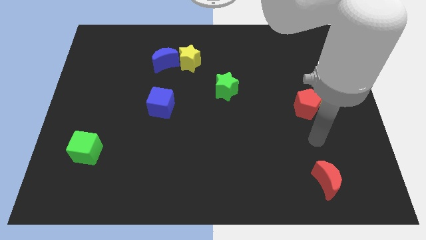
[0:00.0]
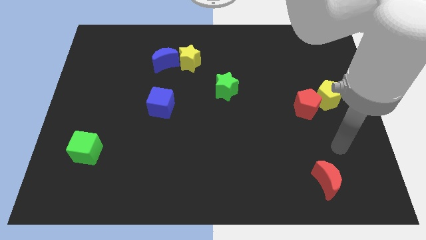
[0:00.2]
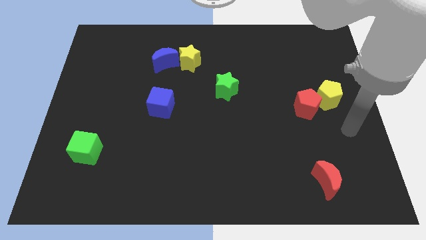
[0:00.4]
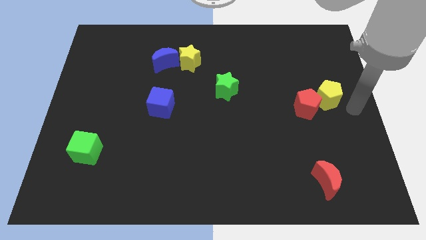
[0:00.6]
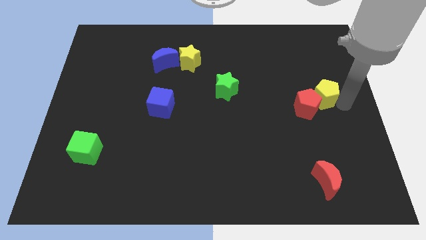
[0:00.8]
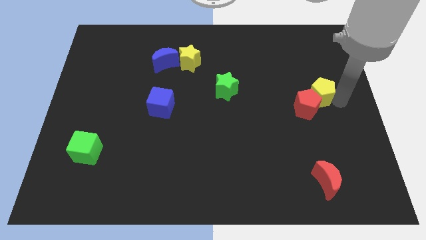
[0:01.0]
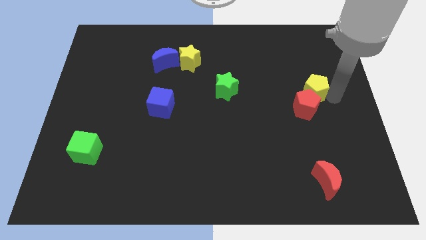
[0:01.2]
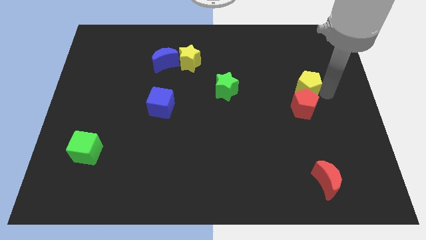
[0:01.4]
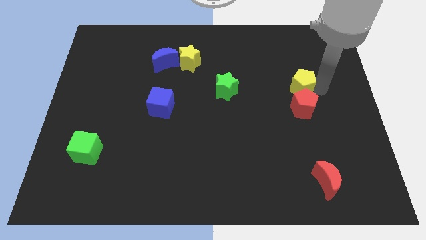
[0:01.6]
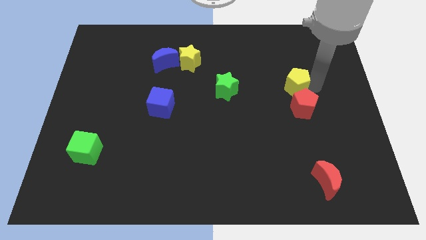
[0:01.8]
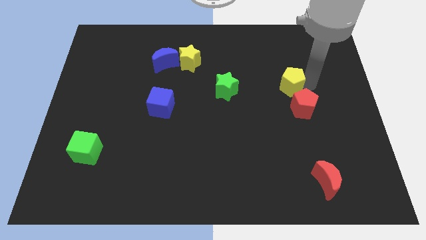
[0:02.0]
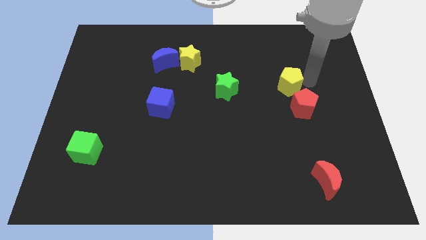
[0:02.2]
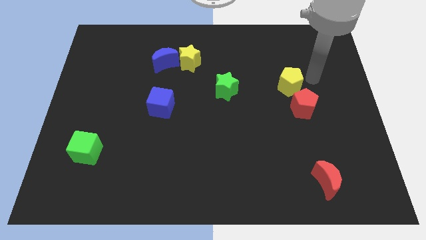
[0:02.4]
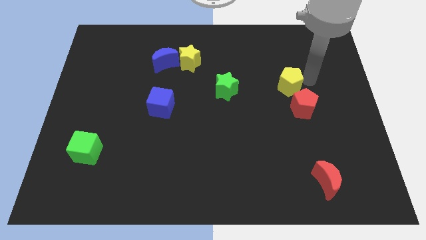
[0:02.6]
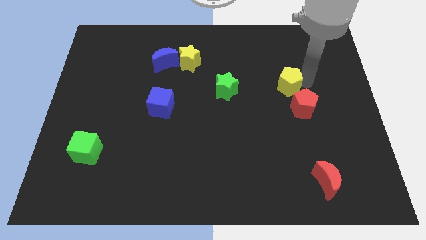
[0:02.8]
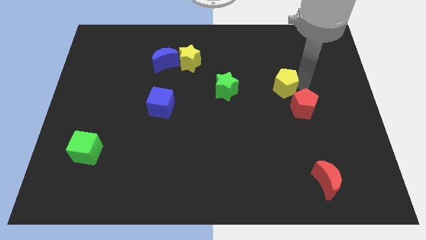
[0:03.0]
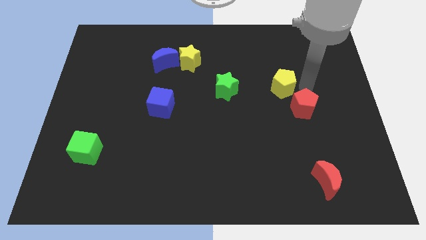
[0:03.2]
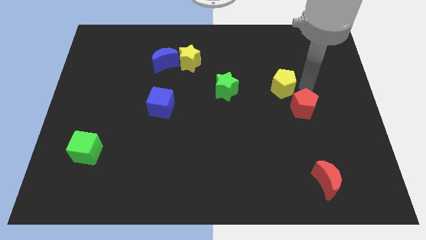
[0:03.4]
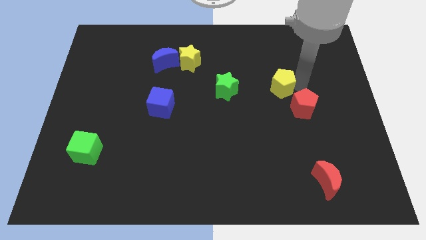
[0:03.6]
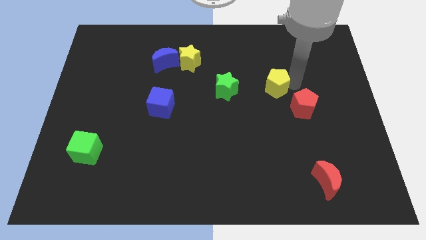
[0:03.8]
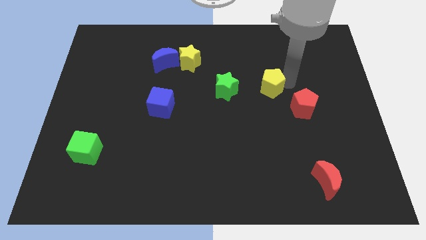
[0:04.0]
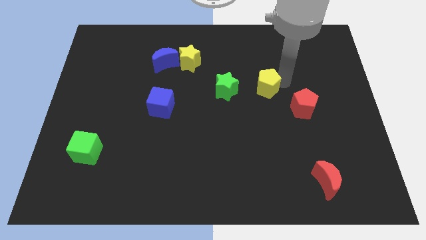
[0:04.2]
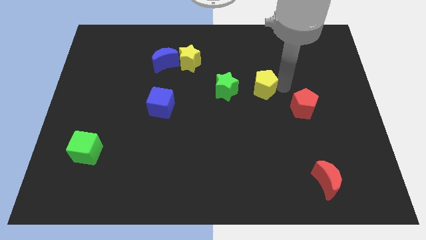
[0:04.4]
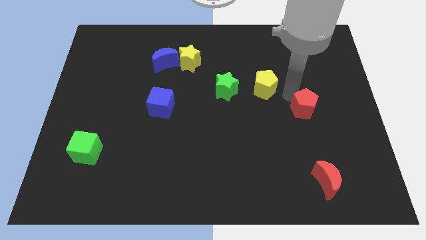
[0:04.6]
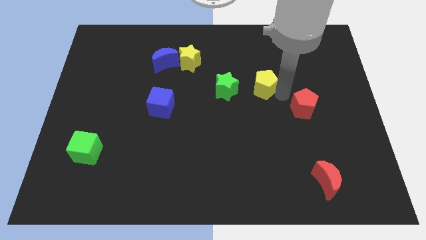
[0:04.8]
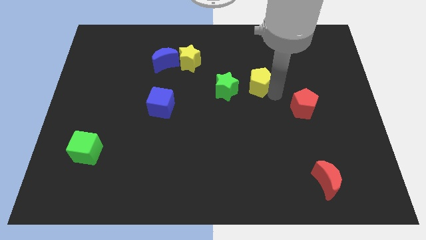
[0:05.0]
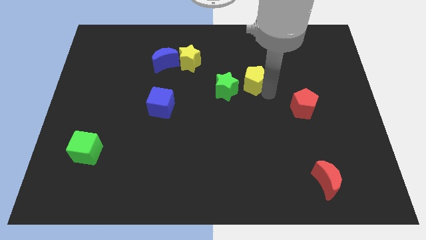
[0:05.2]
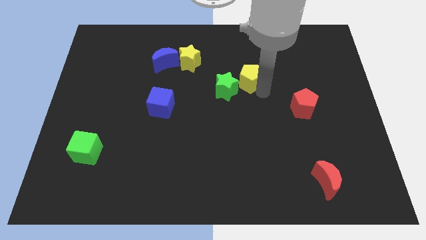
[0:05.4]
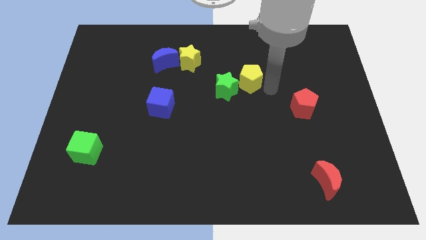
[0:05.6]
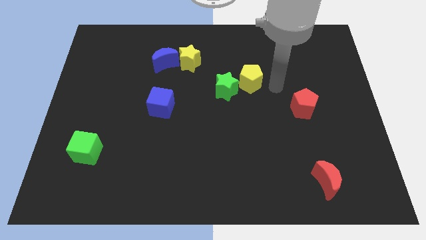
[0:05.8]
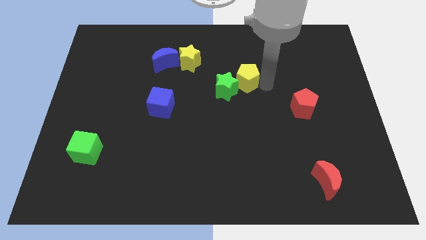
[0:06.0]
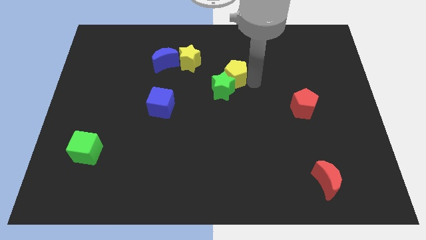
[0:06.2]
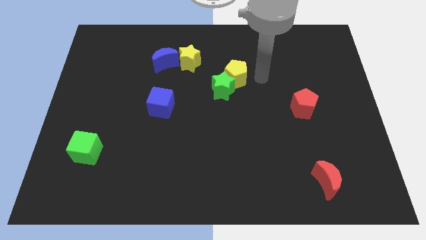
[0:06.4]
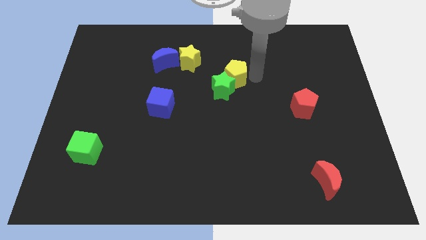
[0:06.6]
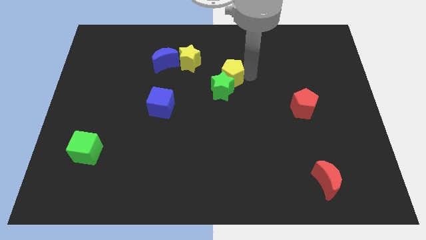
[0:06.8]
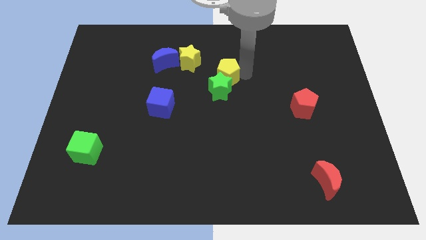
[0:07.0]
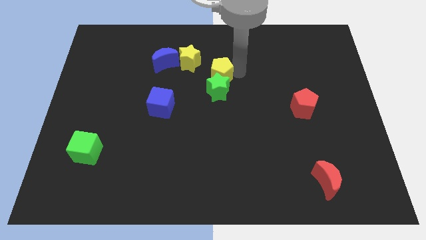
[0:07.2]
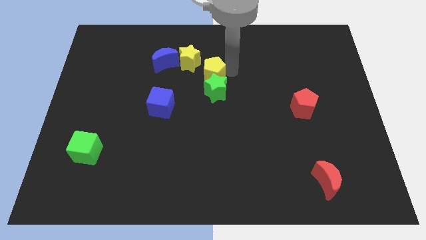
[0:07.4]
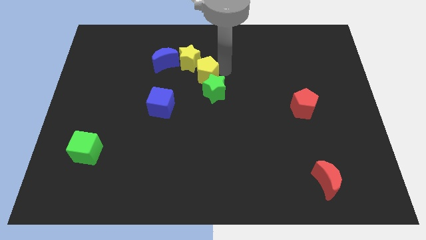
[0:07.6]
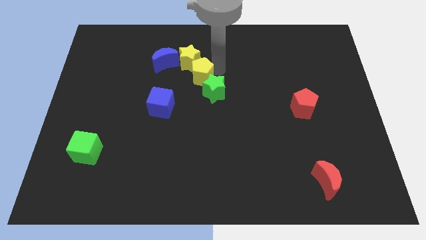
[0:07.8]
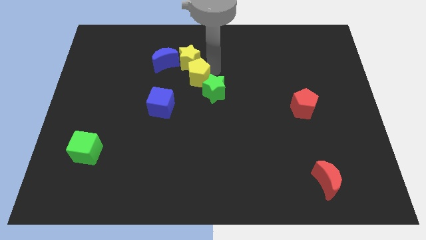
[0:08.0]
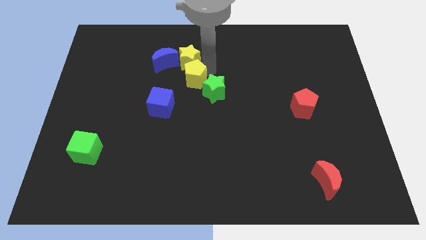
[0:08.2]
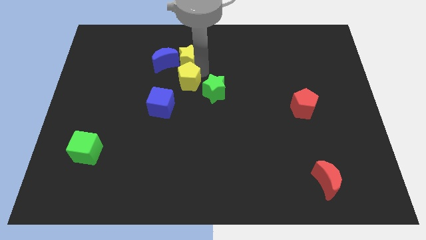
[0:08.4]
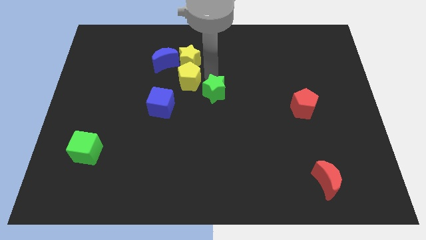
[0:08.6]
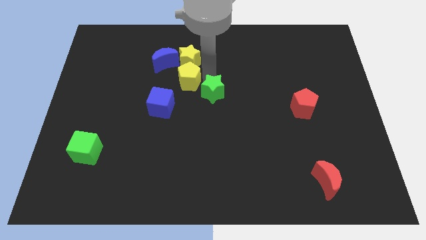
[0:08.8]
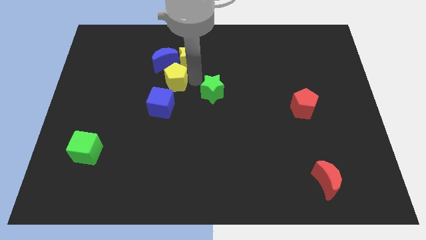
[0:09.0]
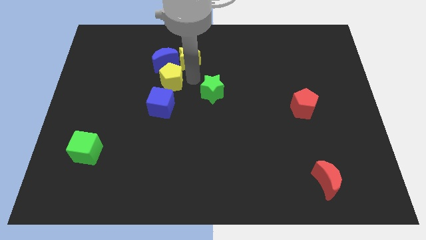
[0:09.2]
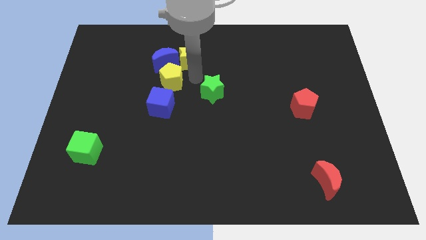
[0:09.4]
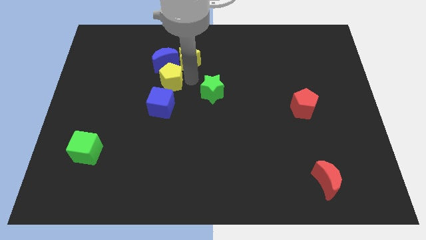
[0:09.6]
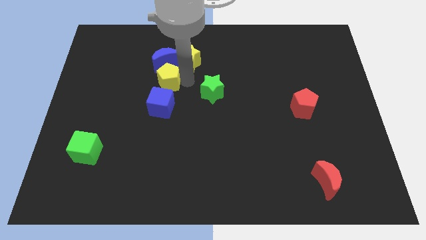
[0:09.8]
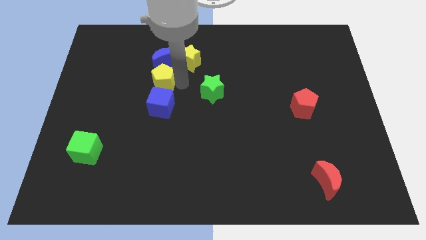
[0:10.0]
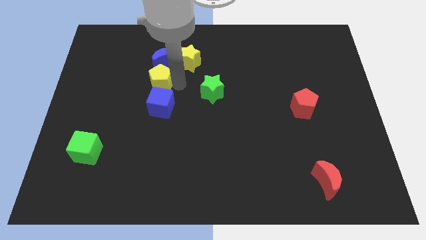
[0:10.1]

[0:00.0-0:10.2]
push the yellow pentagon to the top left of the blue cube

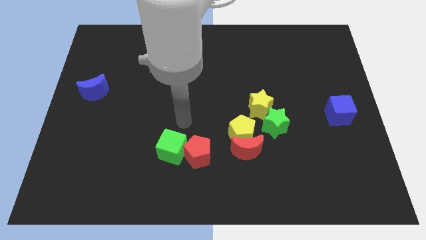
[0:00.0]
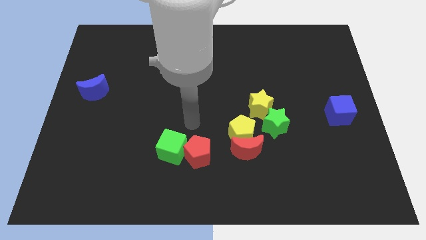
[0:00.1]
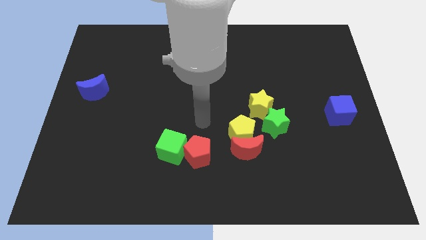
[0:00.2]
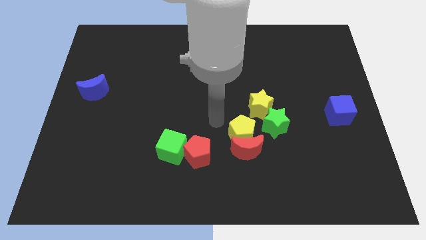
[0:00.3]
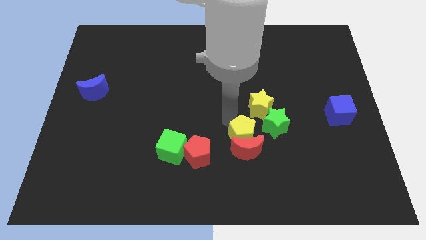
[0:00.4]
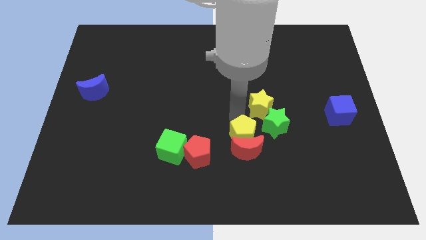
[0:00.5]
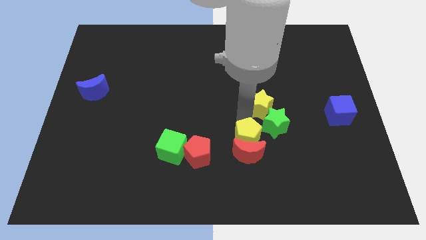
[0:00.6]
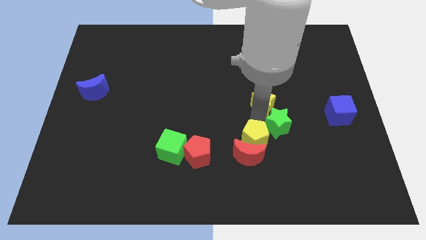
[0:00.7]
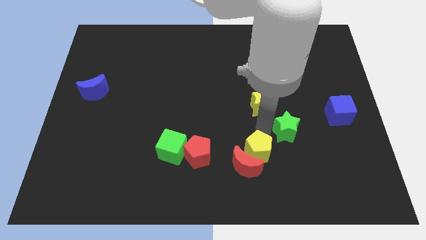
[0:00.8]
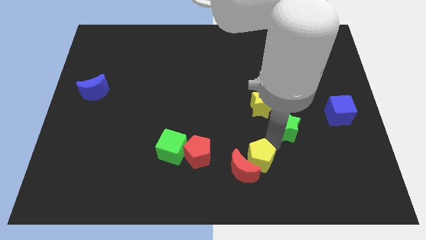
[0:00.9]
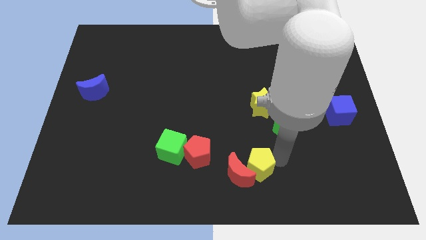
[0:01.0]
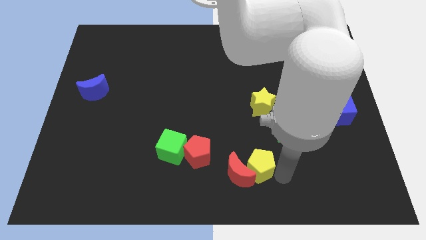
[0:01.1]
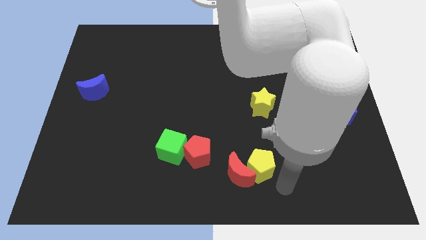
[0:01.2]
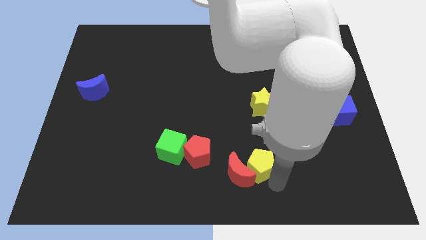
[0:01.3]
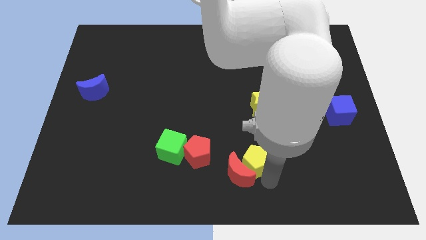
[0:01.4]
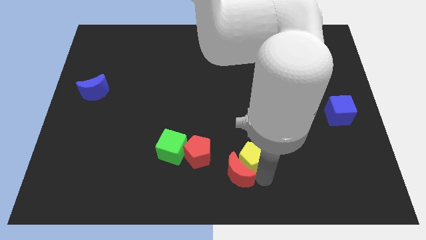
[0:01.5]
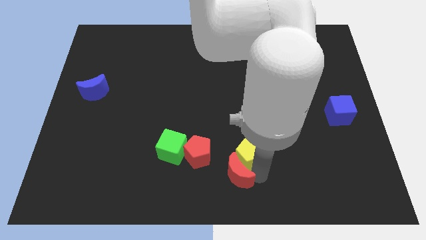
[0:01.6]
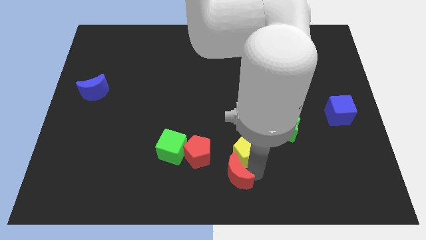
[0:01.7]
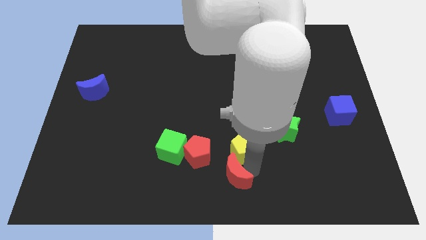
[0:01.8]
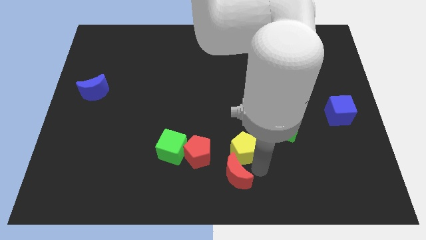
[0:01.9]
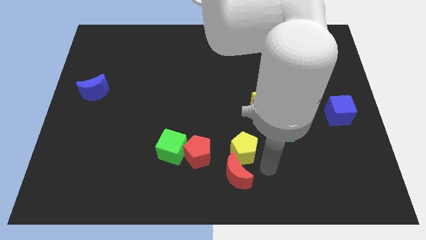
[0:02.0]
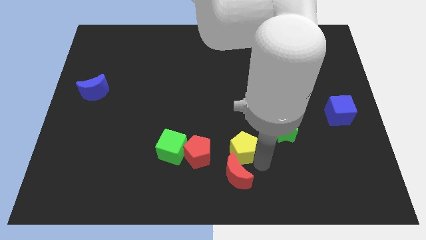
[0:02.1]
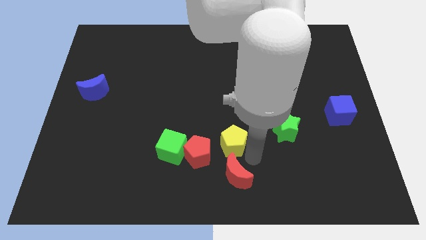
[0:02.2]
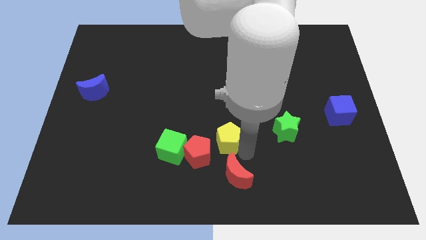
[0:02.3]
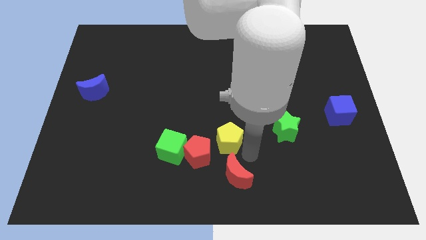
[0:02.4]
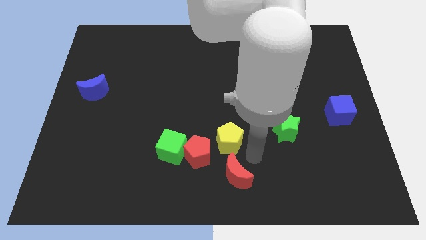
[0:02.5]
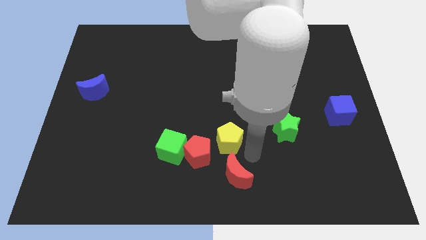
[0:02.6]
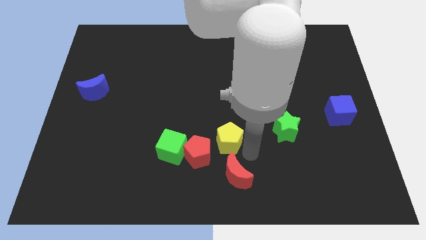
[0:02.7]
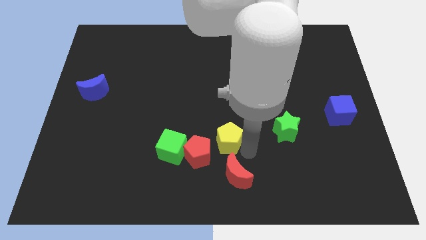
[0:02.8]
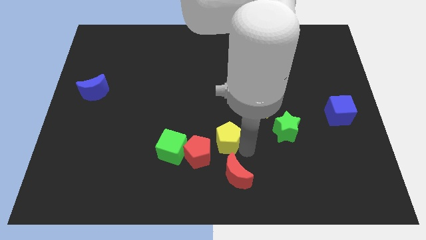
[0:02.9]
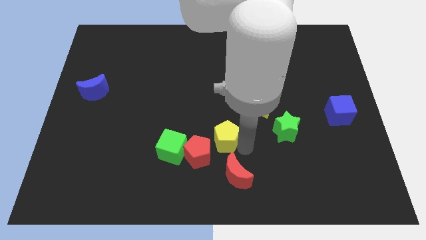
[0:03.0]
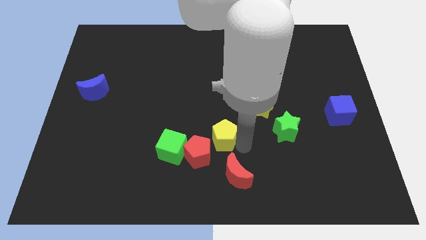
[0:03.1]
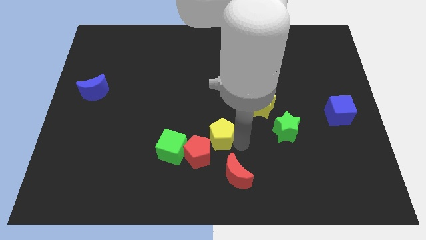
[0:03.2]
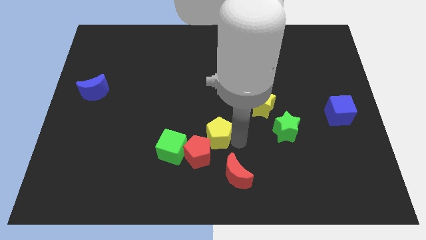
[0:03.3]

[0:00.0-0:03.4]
move the yellow pentagon to the top right side of the green cube
